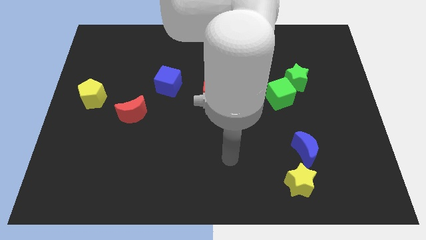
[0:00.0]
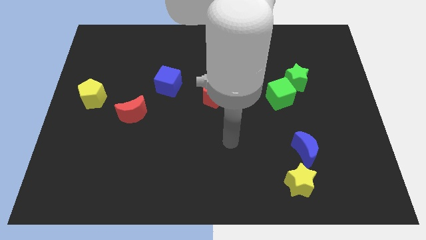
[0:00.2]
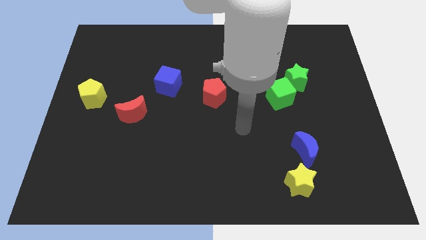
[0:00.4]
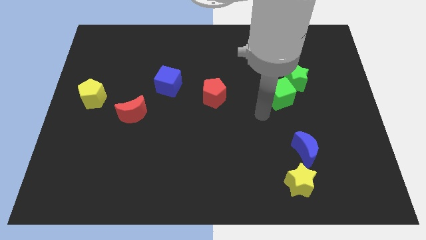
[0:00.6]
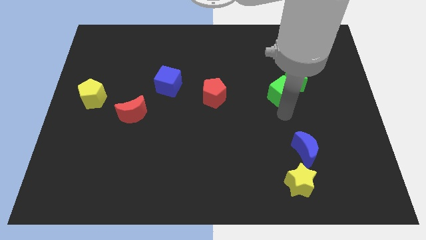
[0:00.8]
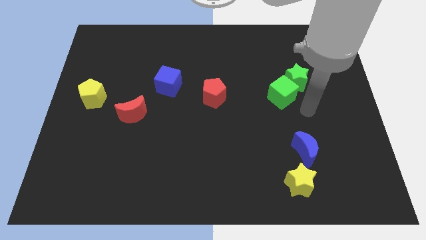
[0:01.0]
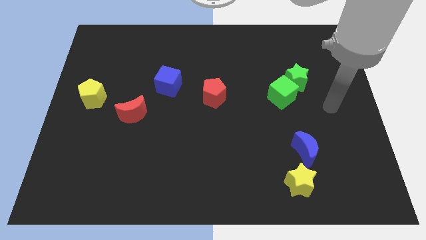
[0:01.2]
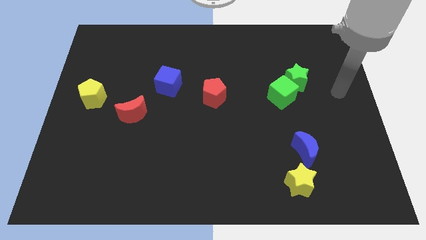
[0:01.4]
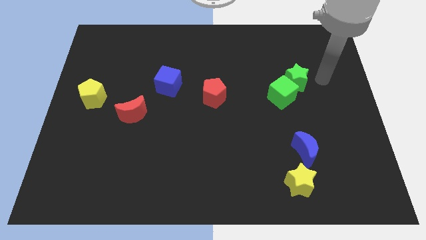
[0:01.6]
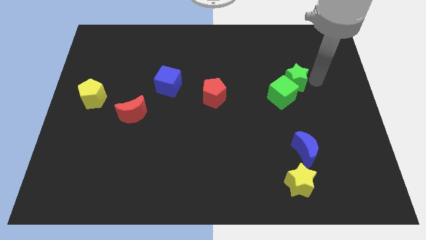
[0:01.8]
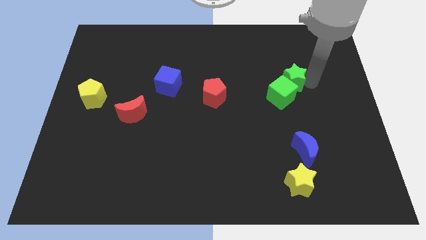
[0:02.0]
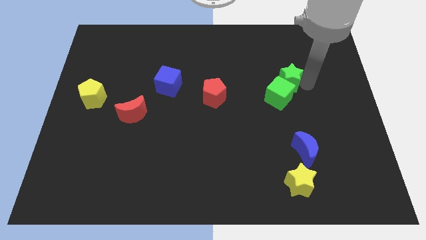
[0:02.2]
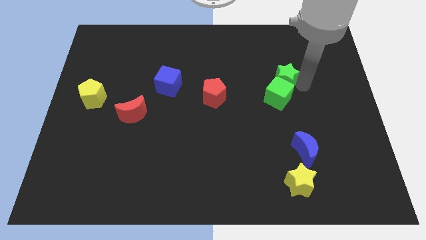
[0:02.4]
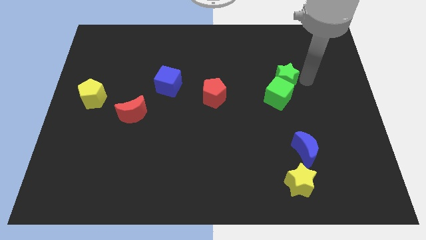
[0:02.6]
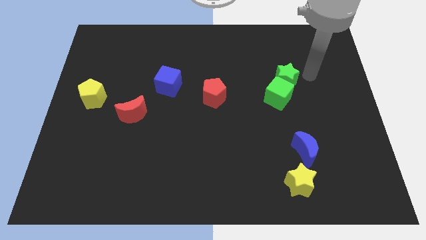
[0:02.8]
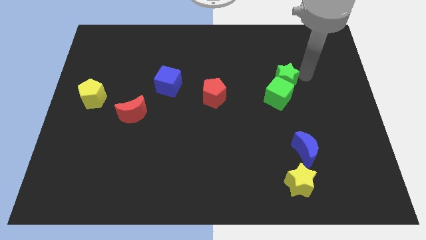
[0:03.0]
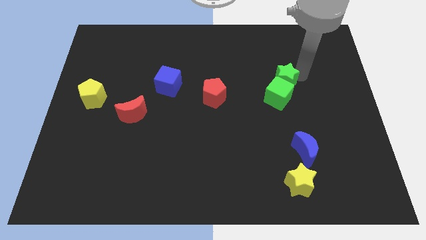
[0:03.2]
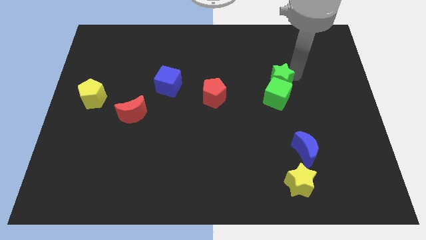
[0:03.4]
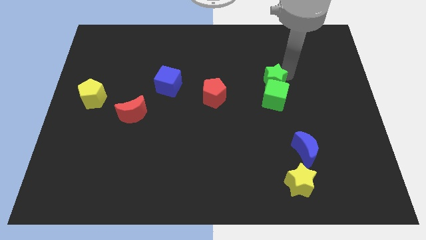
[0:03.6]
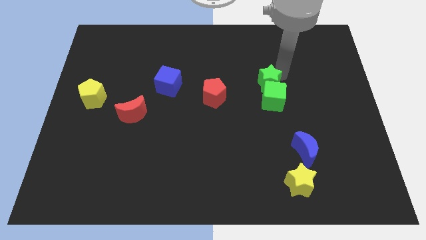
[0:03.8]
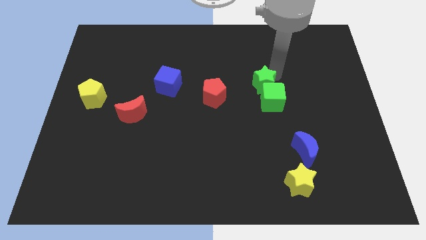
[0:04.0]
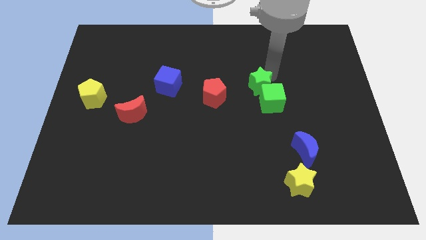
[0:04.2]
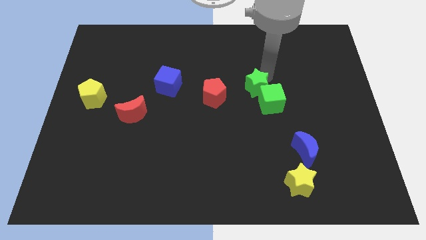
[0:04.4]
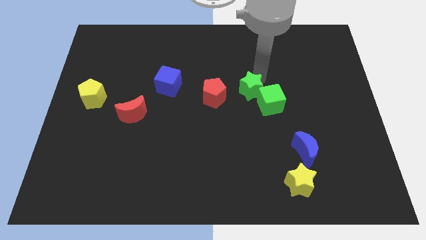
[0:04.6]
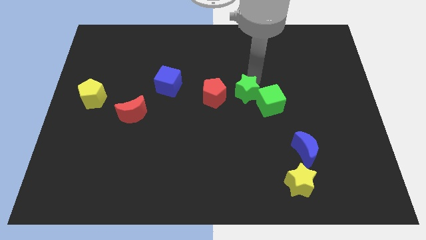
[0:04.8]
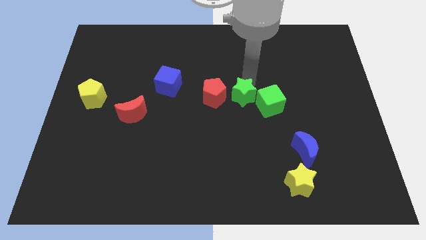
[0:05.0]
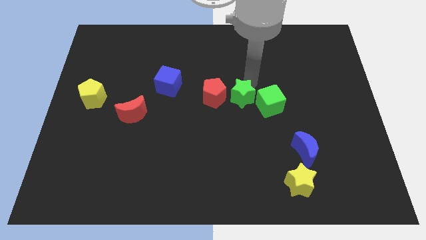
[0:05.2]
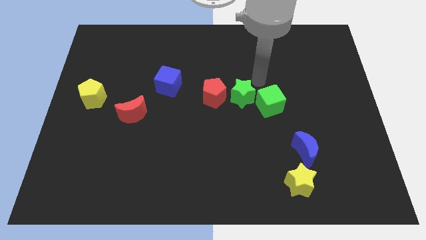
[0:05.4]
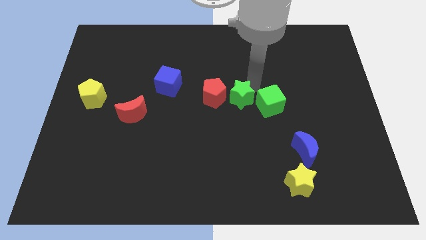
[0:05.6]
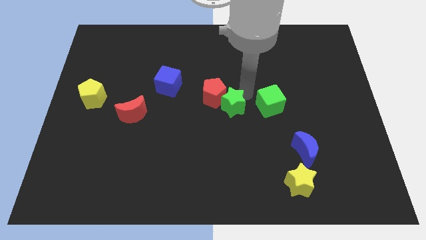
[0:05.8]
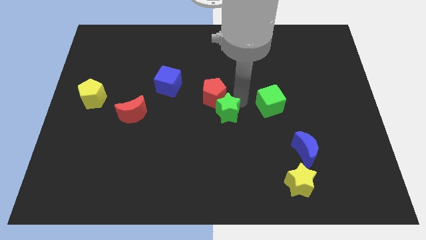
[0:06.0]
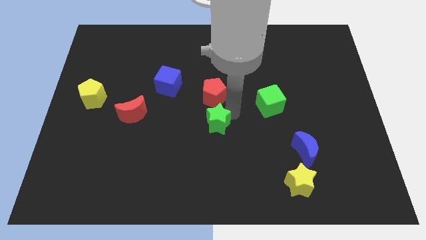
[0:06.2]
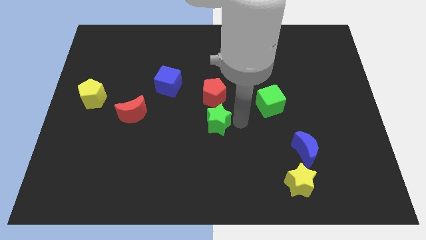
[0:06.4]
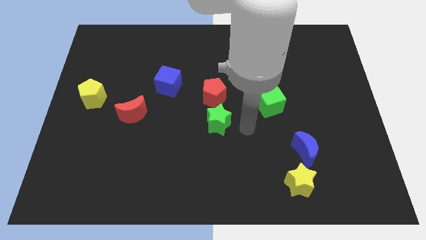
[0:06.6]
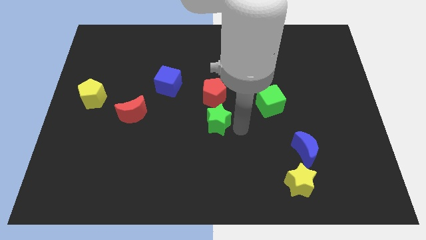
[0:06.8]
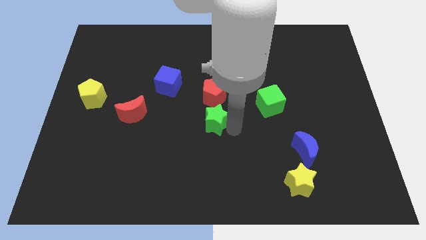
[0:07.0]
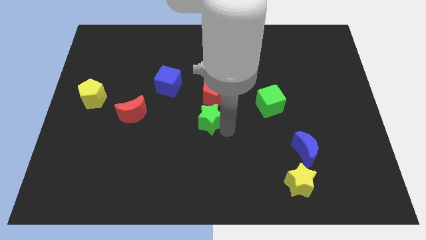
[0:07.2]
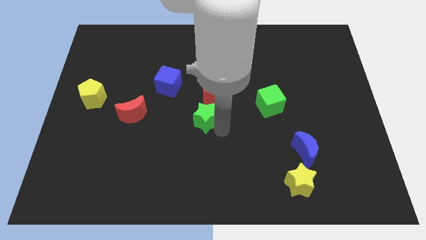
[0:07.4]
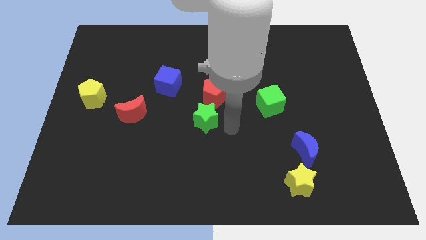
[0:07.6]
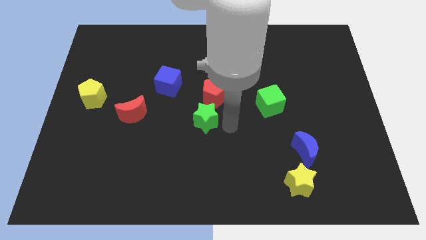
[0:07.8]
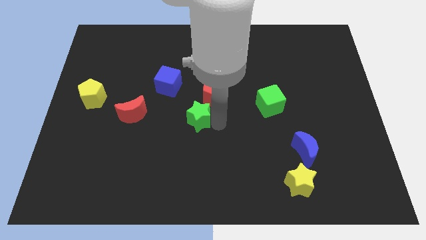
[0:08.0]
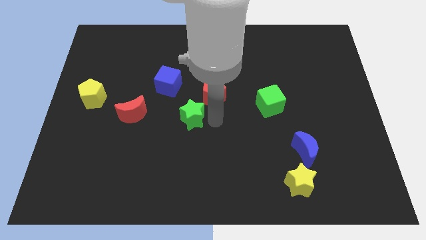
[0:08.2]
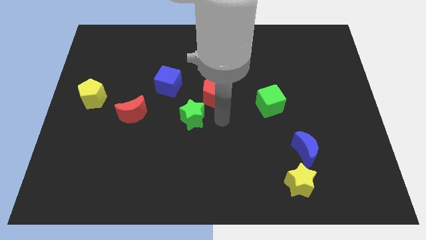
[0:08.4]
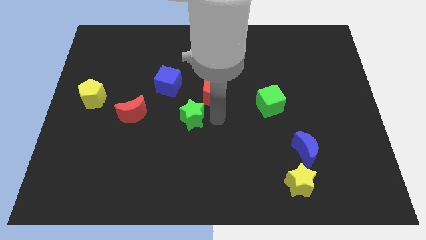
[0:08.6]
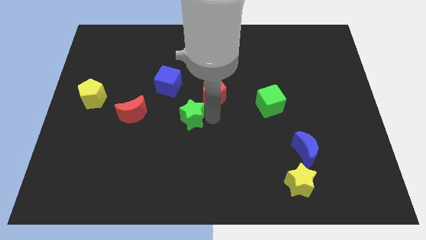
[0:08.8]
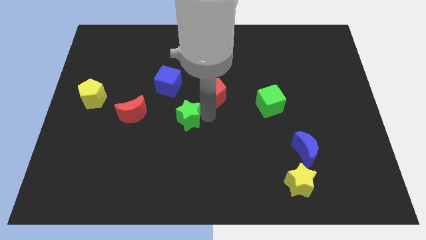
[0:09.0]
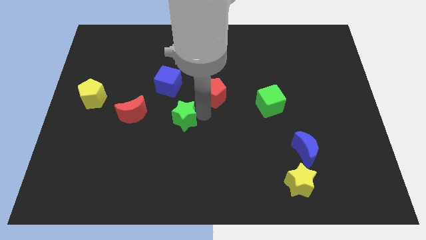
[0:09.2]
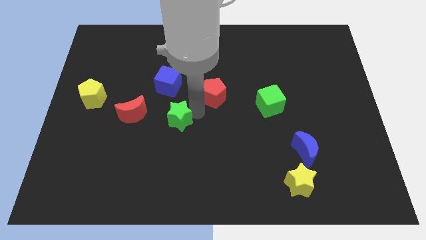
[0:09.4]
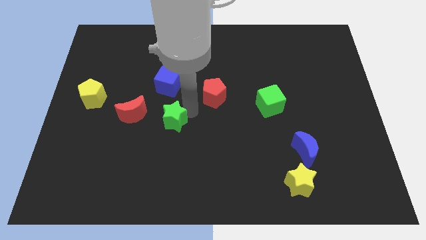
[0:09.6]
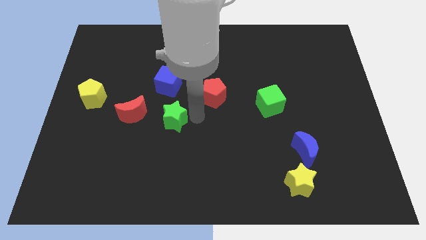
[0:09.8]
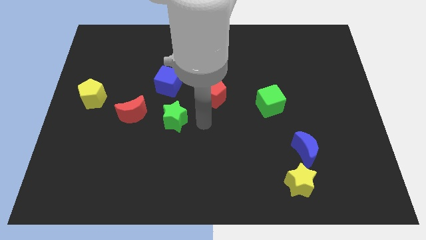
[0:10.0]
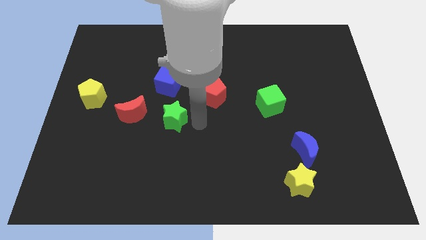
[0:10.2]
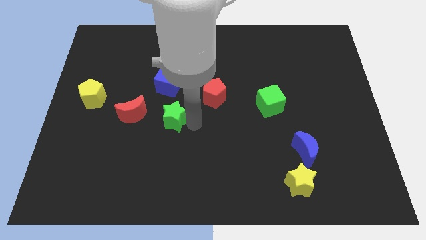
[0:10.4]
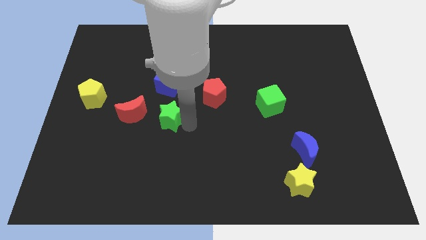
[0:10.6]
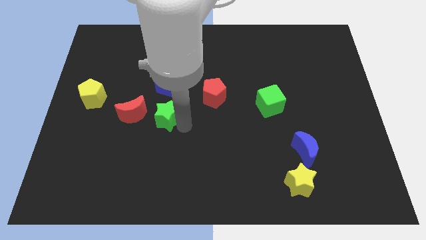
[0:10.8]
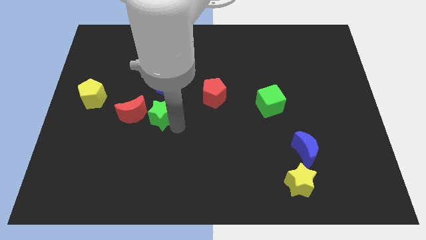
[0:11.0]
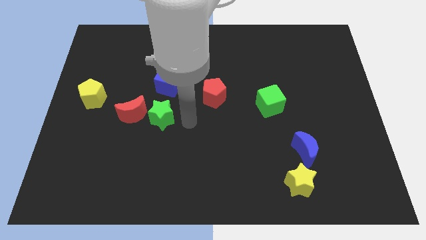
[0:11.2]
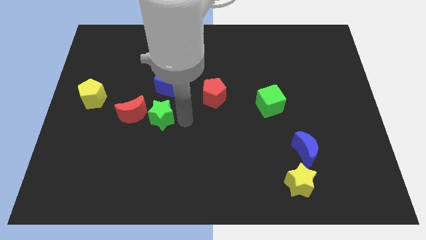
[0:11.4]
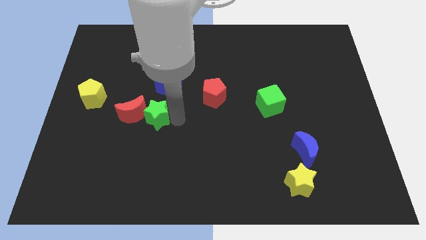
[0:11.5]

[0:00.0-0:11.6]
push the green star next to the red moon

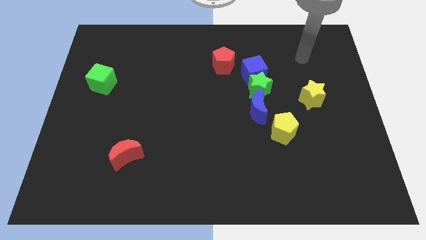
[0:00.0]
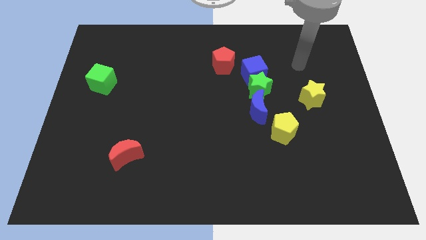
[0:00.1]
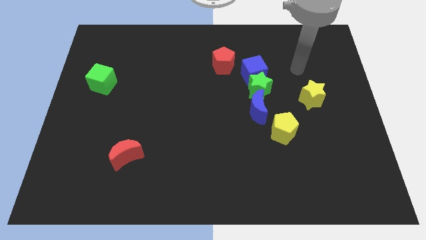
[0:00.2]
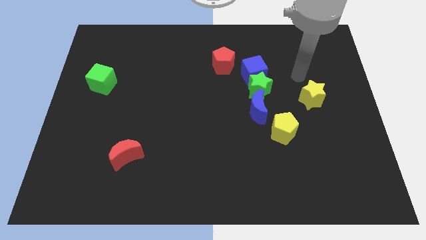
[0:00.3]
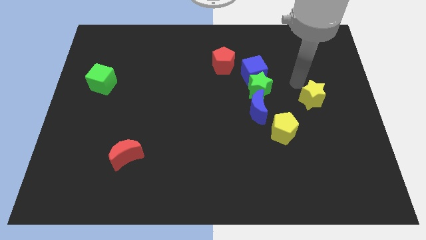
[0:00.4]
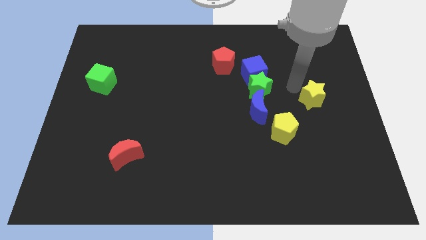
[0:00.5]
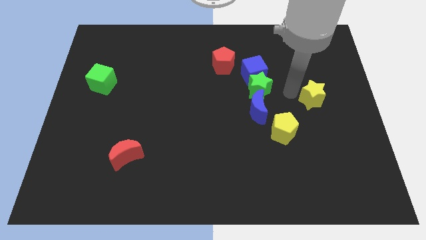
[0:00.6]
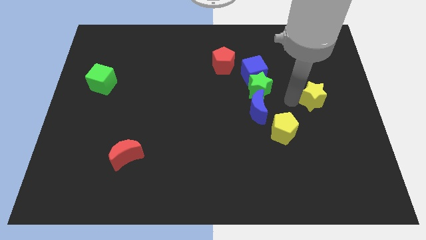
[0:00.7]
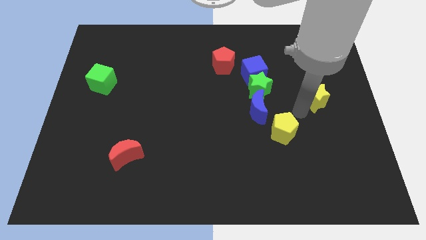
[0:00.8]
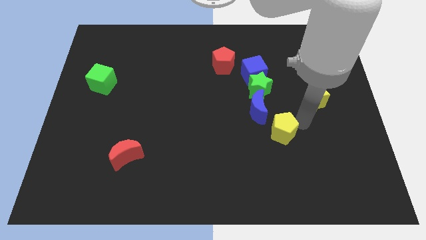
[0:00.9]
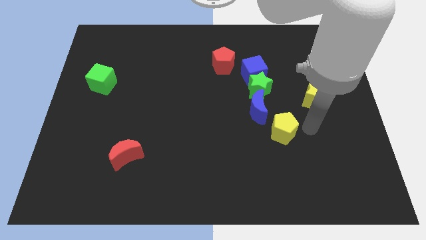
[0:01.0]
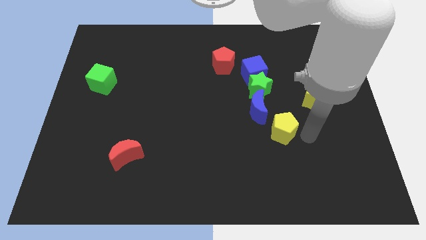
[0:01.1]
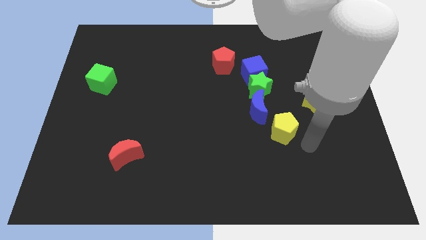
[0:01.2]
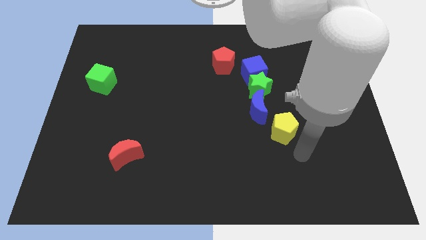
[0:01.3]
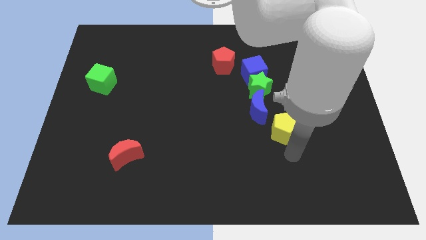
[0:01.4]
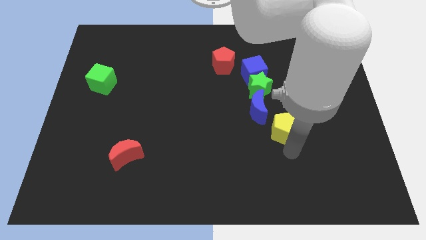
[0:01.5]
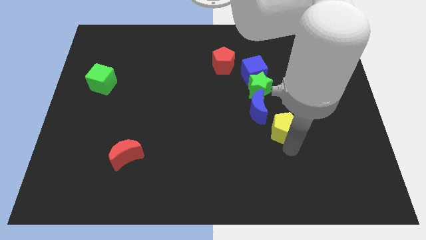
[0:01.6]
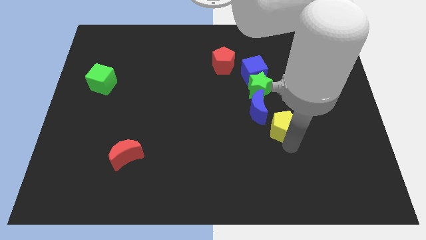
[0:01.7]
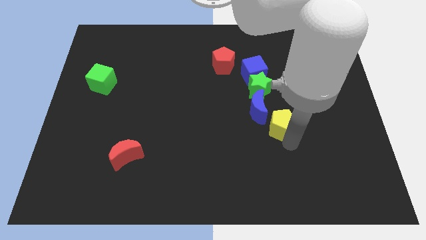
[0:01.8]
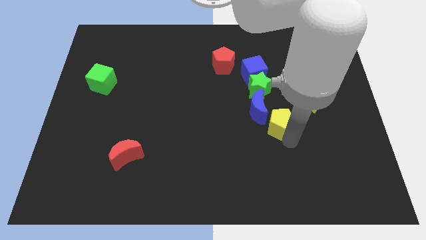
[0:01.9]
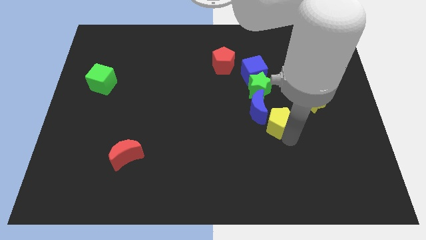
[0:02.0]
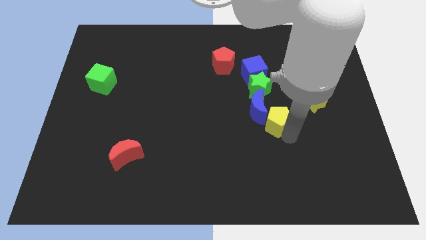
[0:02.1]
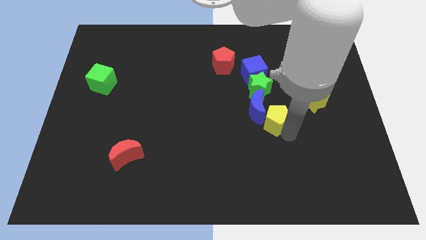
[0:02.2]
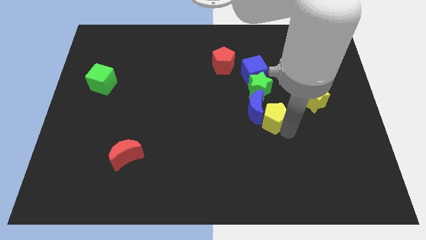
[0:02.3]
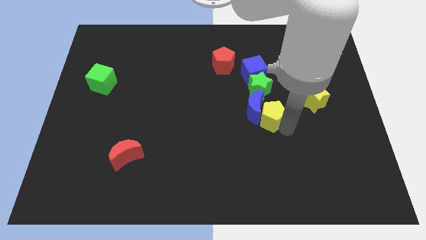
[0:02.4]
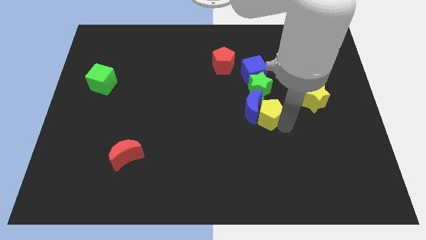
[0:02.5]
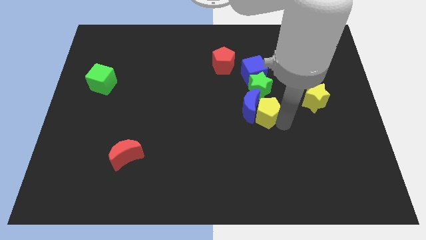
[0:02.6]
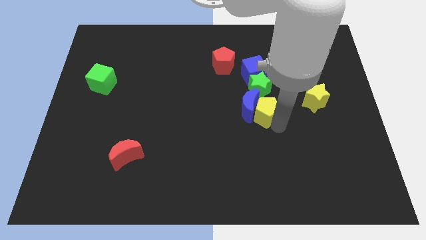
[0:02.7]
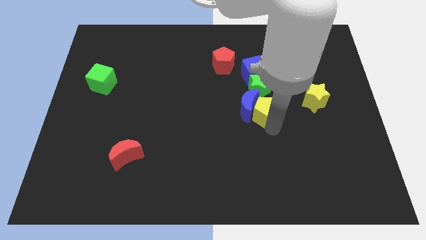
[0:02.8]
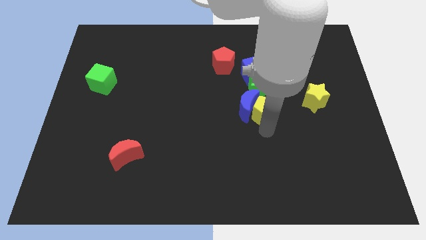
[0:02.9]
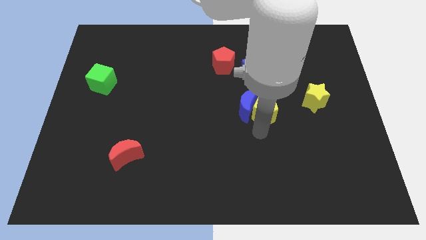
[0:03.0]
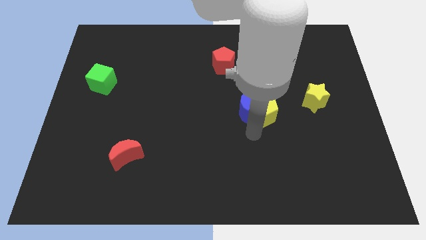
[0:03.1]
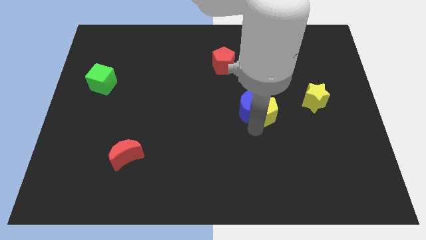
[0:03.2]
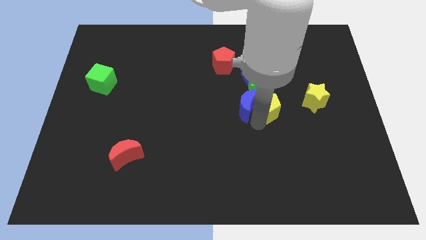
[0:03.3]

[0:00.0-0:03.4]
push the yellow pentagon close to the green star
